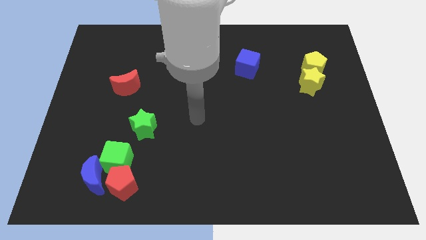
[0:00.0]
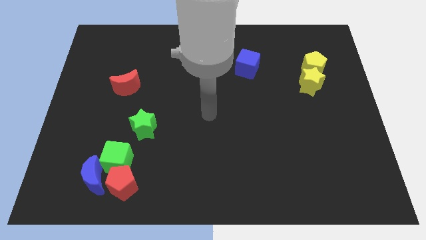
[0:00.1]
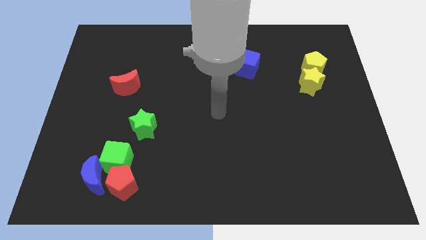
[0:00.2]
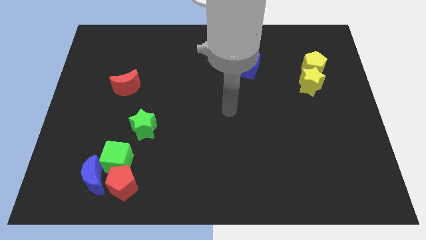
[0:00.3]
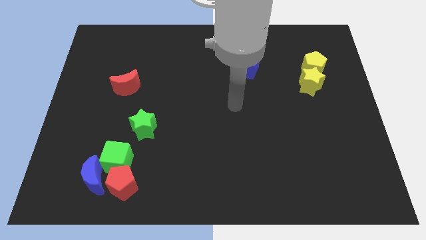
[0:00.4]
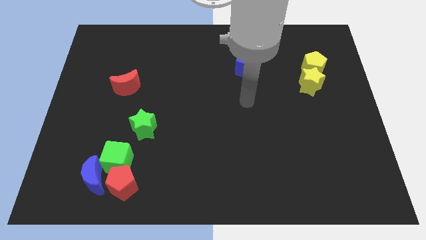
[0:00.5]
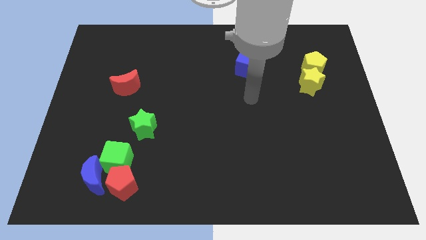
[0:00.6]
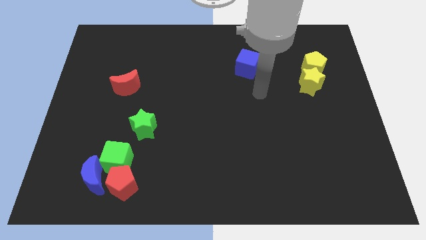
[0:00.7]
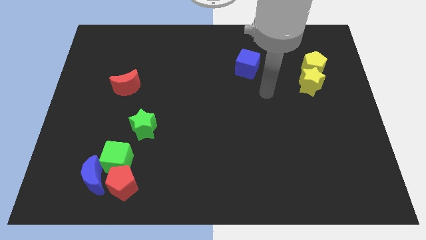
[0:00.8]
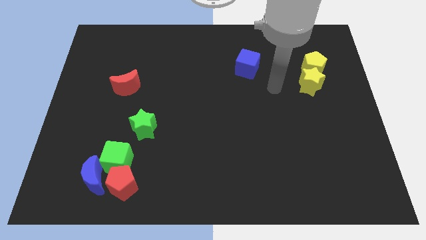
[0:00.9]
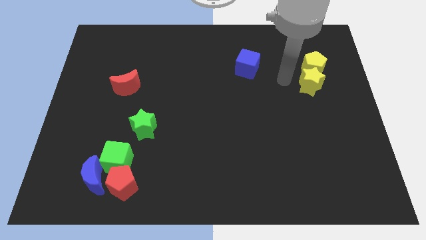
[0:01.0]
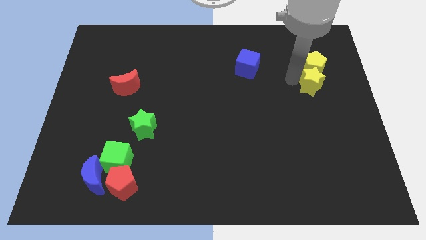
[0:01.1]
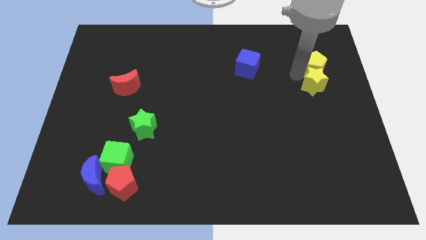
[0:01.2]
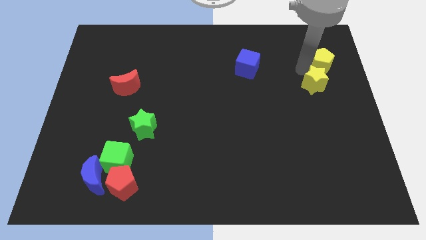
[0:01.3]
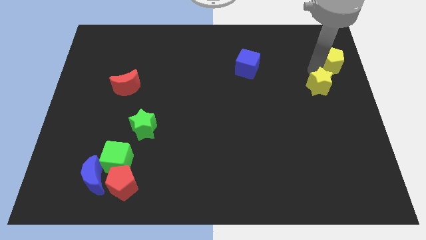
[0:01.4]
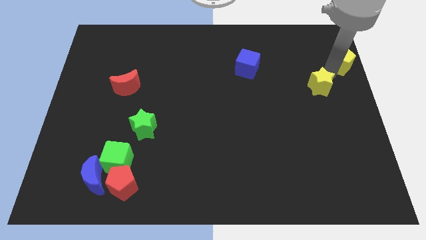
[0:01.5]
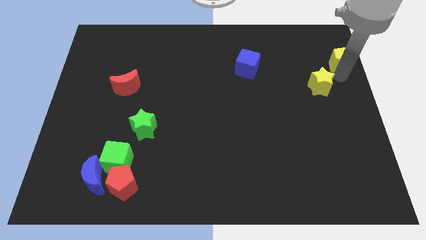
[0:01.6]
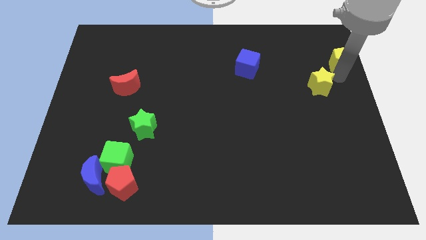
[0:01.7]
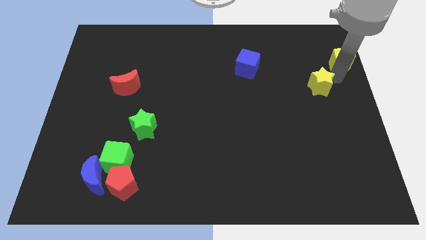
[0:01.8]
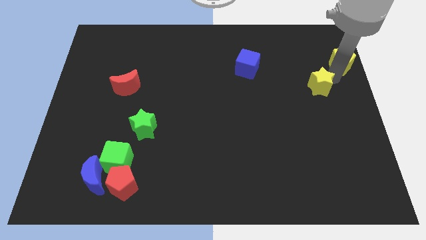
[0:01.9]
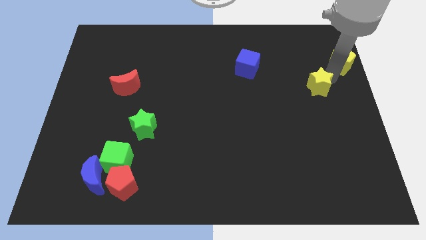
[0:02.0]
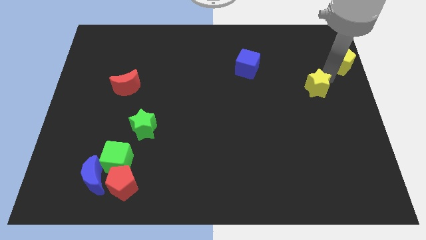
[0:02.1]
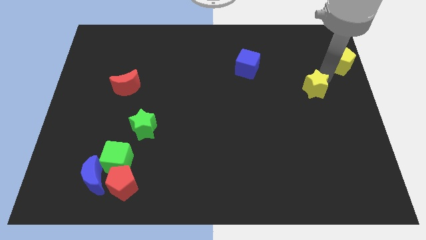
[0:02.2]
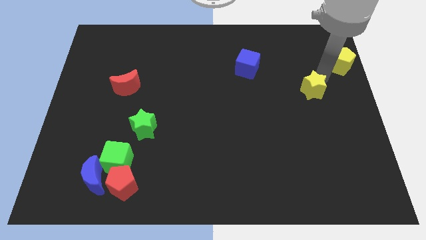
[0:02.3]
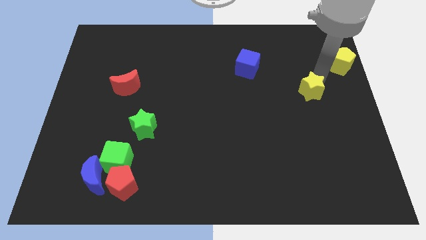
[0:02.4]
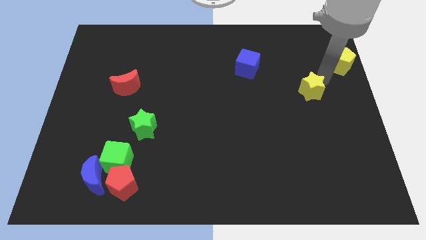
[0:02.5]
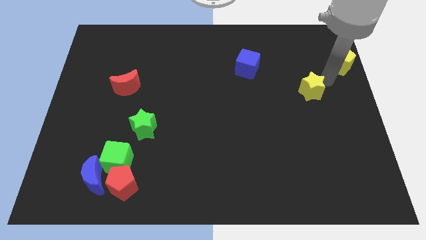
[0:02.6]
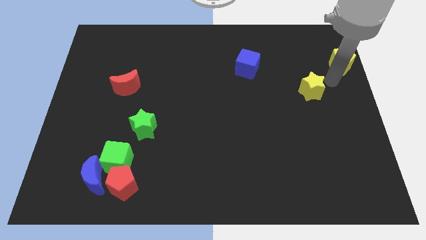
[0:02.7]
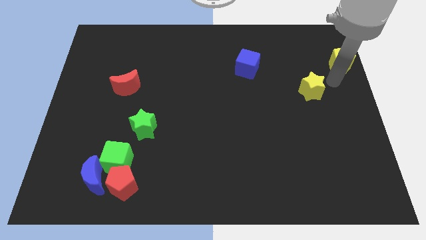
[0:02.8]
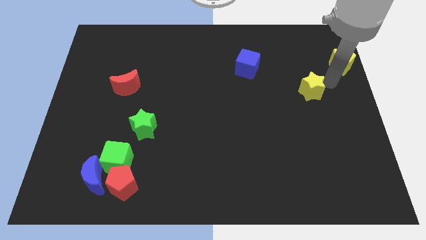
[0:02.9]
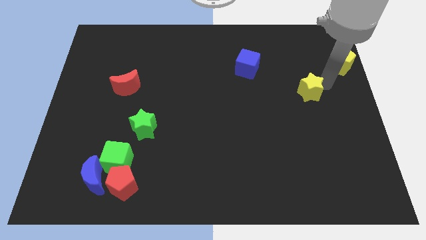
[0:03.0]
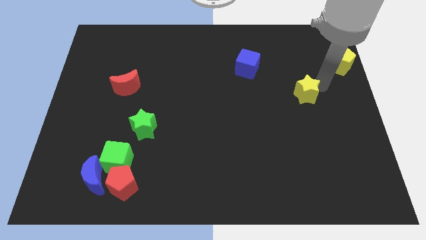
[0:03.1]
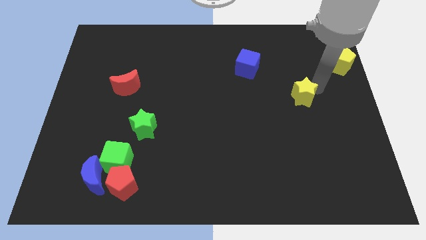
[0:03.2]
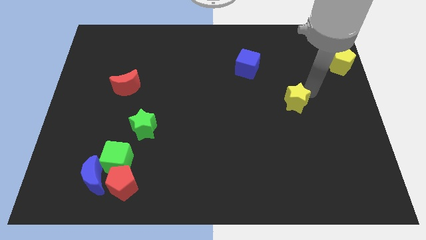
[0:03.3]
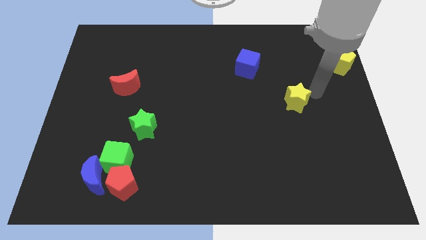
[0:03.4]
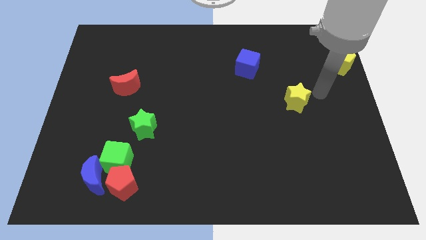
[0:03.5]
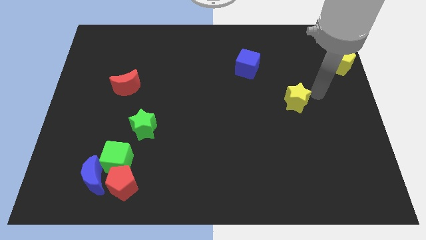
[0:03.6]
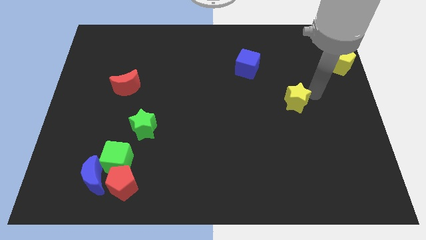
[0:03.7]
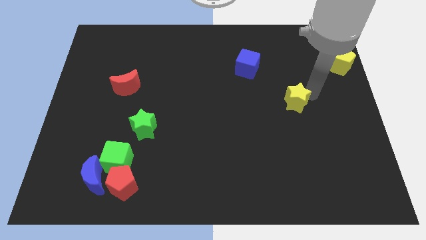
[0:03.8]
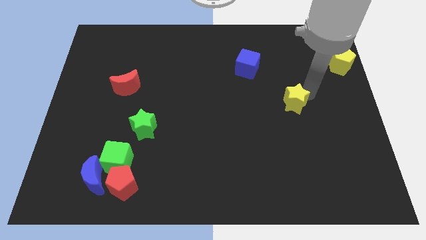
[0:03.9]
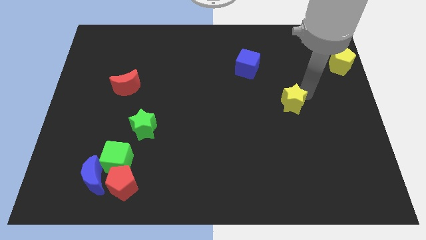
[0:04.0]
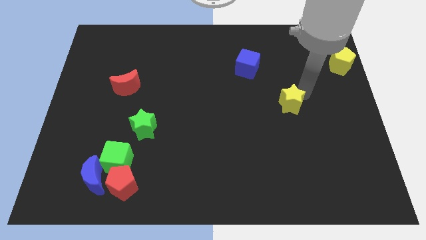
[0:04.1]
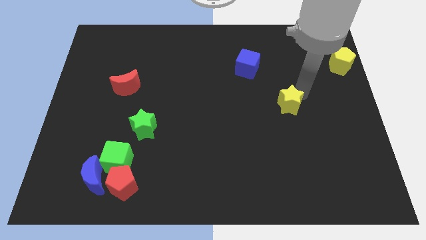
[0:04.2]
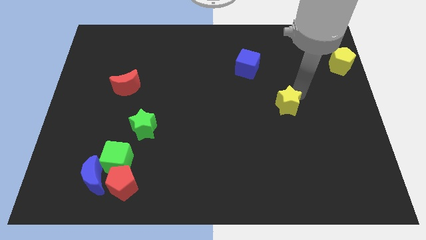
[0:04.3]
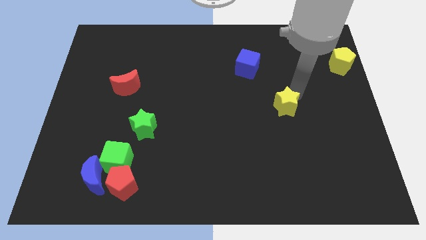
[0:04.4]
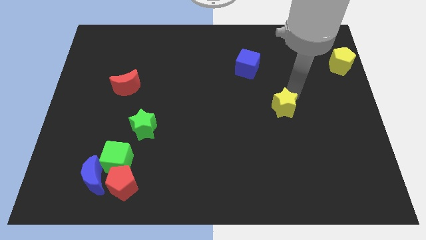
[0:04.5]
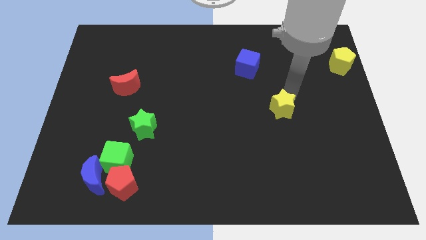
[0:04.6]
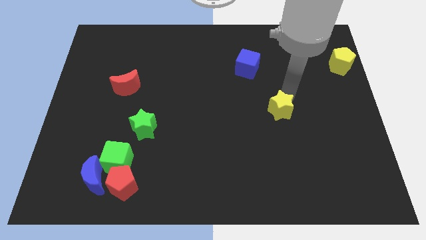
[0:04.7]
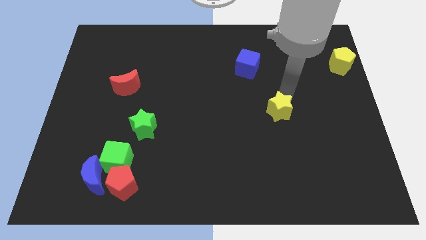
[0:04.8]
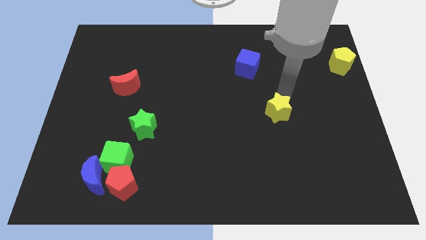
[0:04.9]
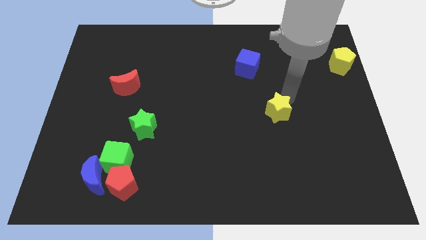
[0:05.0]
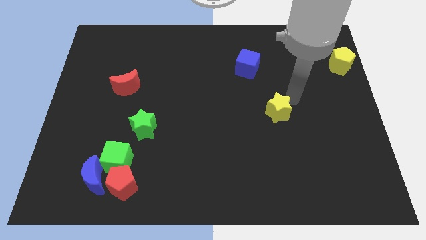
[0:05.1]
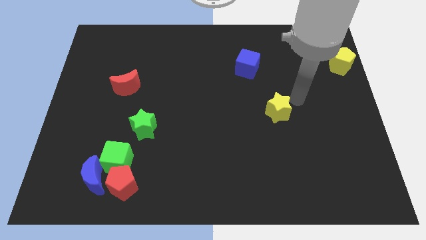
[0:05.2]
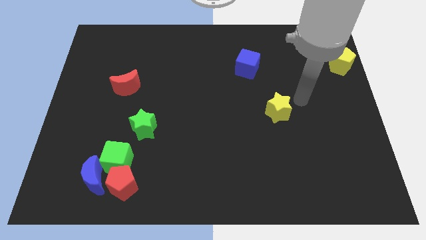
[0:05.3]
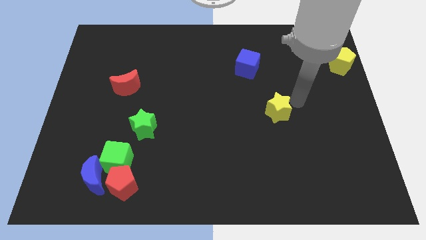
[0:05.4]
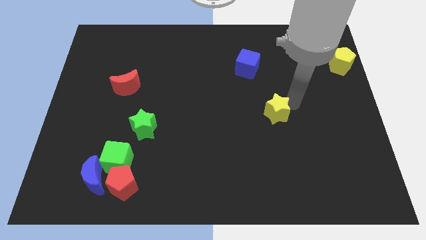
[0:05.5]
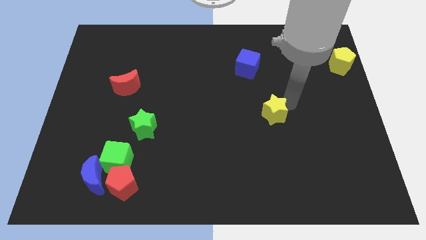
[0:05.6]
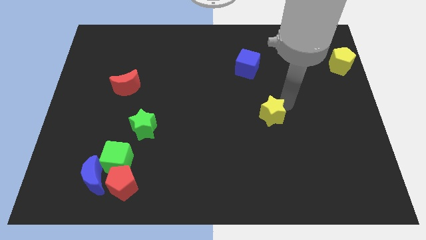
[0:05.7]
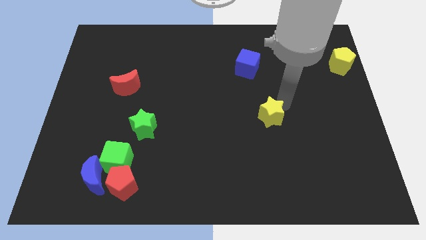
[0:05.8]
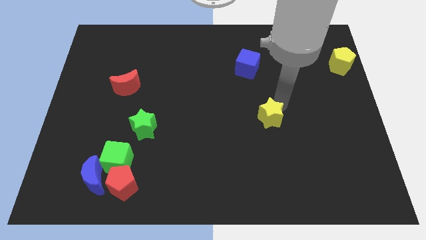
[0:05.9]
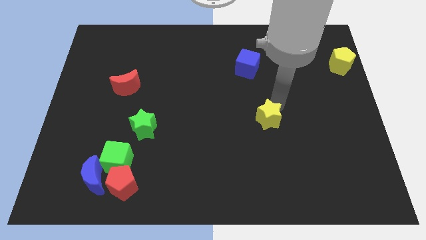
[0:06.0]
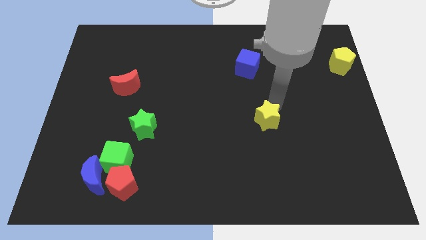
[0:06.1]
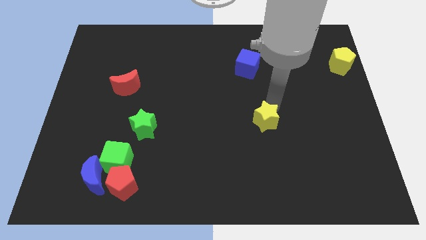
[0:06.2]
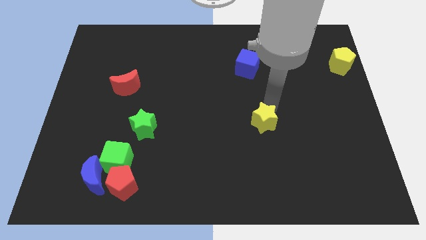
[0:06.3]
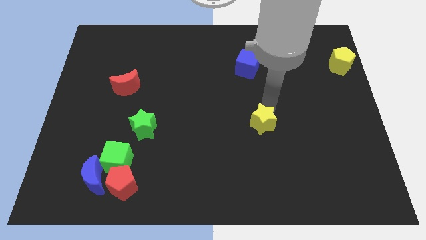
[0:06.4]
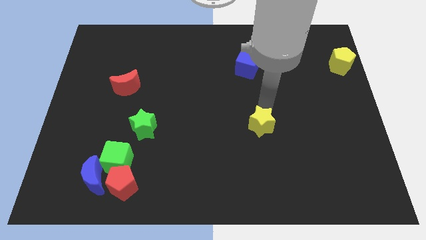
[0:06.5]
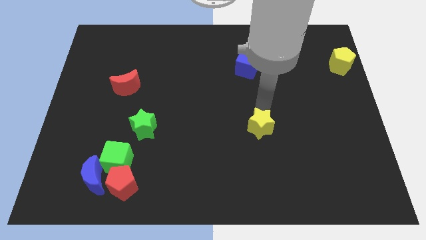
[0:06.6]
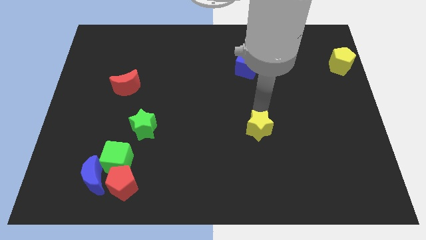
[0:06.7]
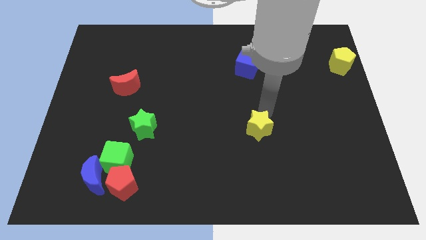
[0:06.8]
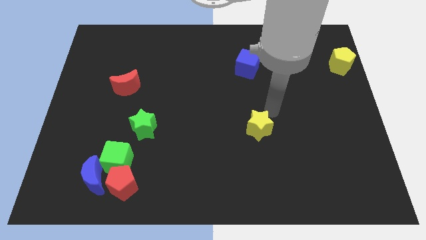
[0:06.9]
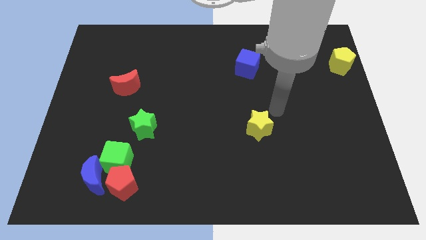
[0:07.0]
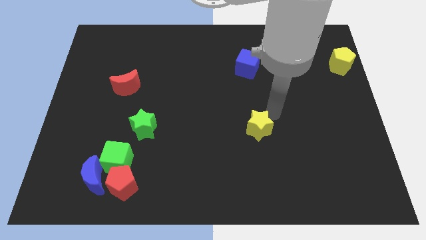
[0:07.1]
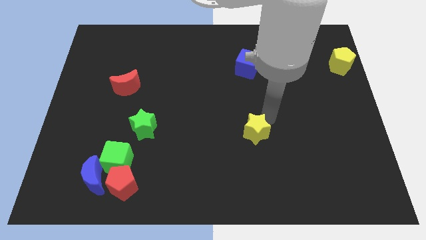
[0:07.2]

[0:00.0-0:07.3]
slide the yellow star downwards and to the left diagonally

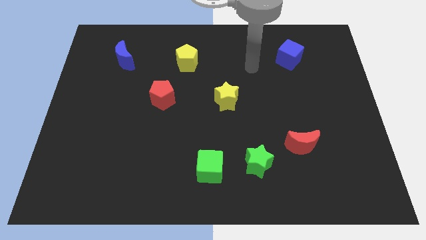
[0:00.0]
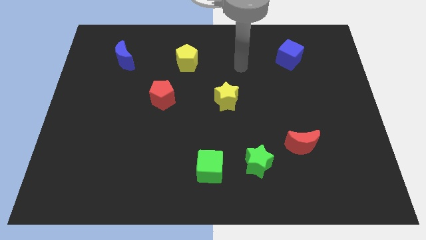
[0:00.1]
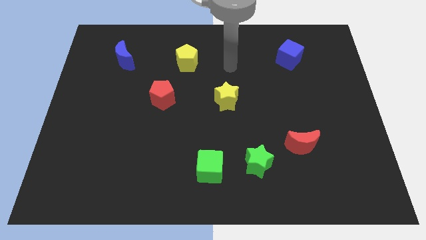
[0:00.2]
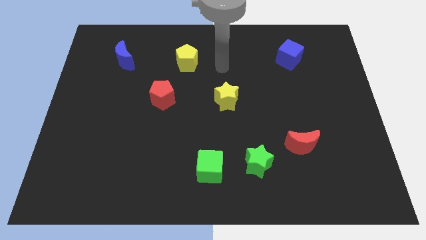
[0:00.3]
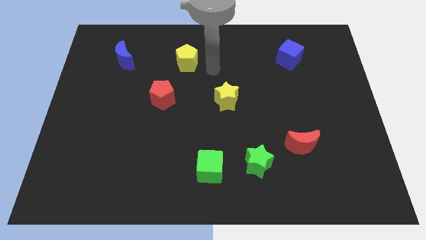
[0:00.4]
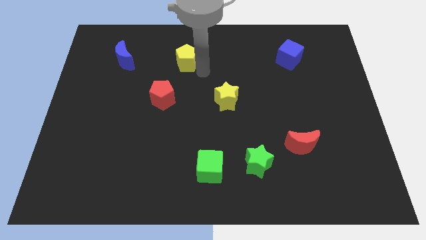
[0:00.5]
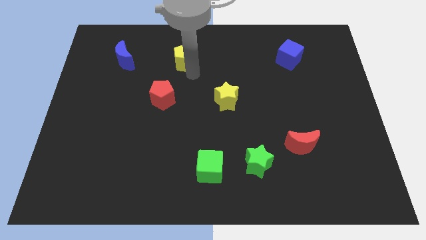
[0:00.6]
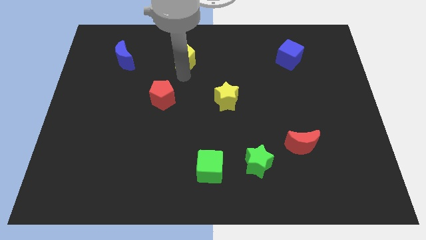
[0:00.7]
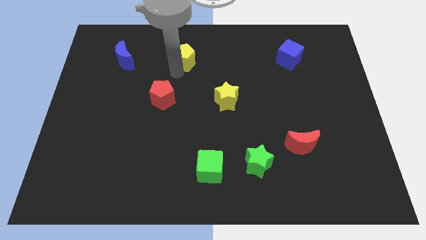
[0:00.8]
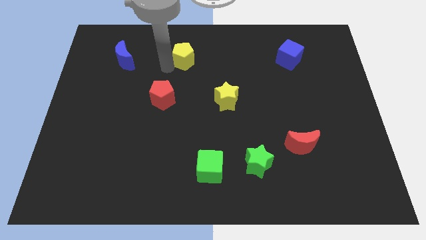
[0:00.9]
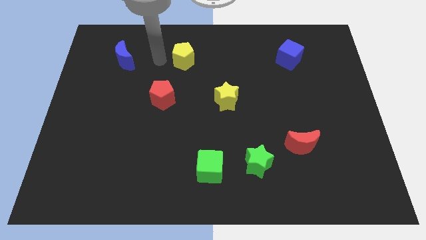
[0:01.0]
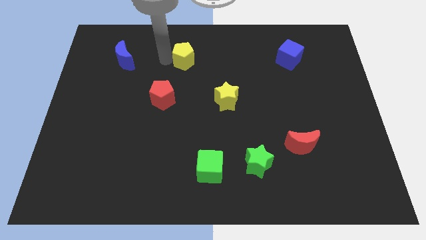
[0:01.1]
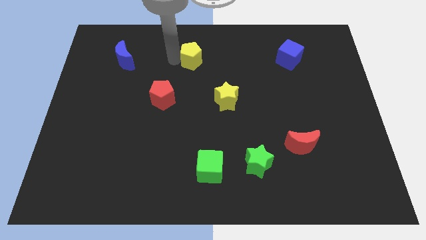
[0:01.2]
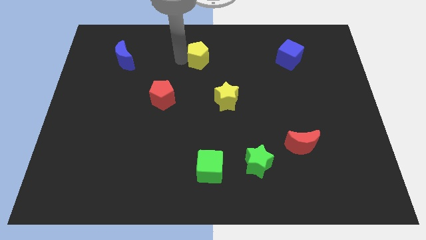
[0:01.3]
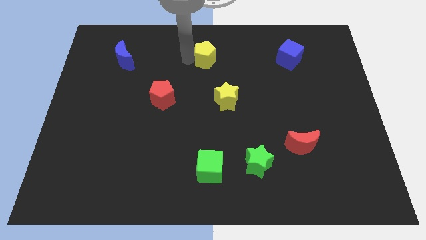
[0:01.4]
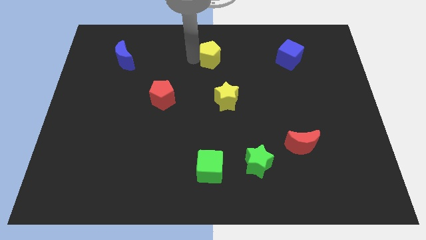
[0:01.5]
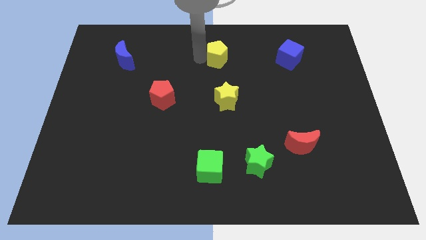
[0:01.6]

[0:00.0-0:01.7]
slightly slide the yellow pentagon to the right
